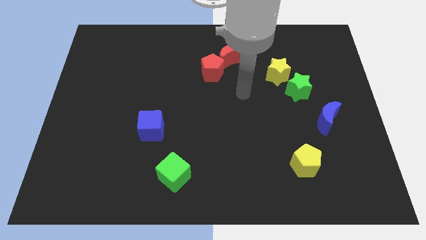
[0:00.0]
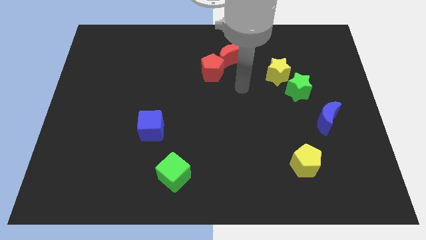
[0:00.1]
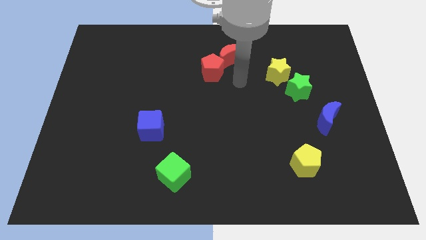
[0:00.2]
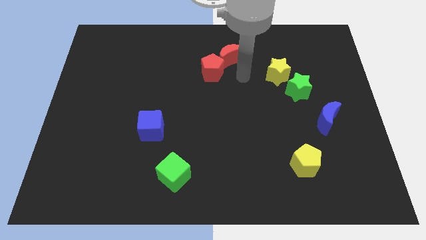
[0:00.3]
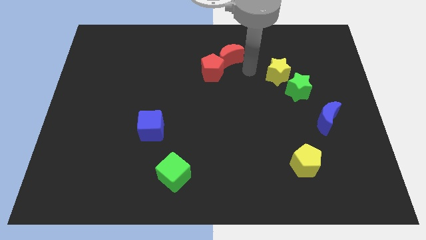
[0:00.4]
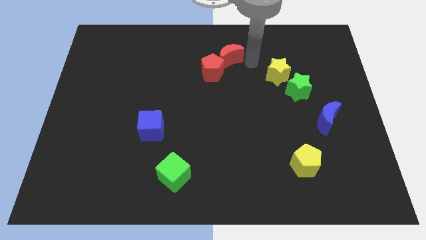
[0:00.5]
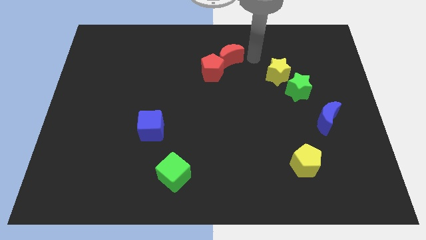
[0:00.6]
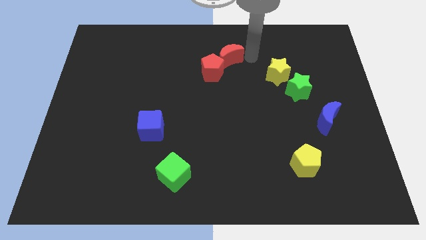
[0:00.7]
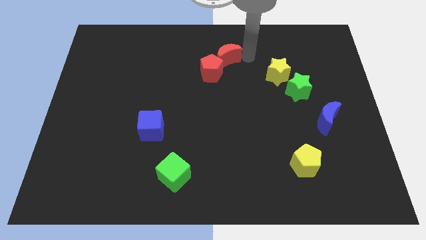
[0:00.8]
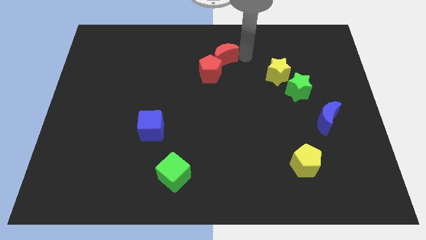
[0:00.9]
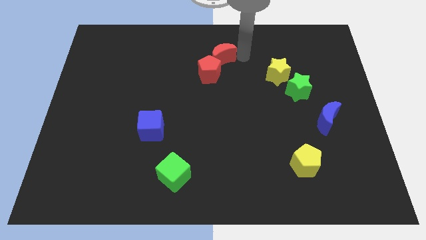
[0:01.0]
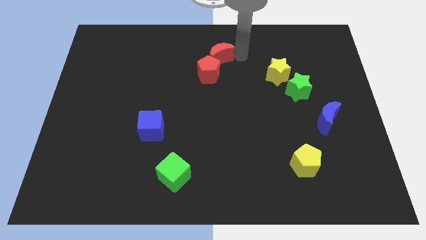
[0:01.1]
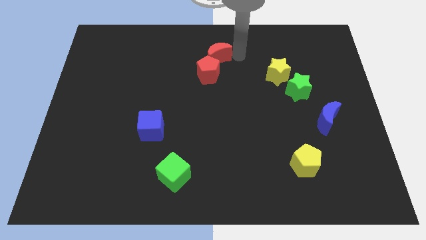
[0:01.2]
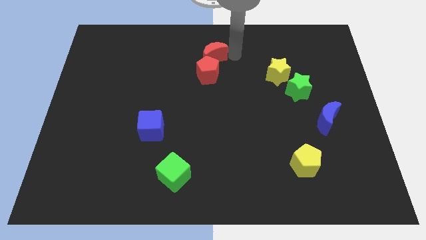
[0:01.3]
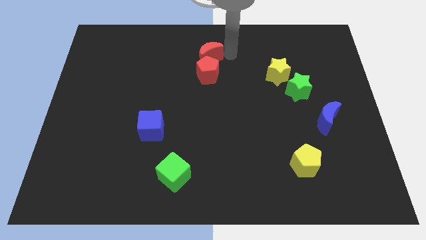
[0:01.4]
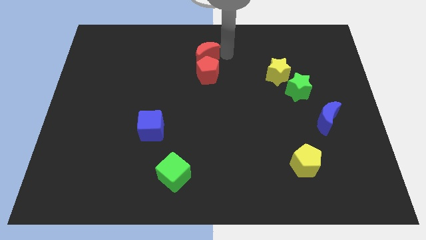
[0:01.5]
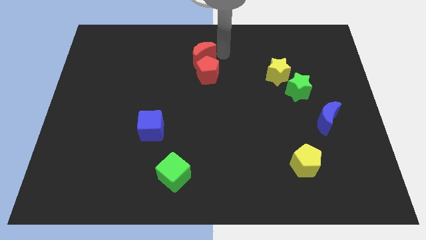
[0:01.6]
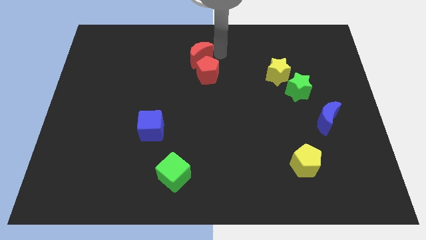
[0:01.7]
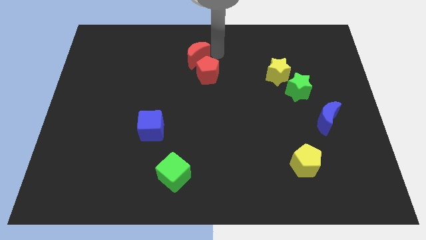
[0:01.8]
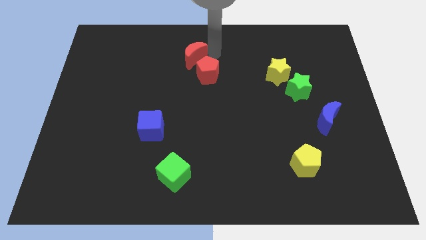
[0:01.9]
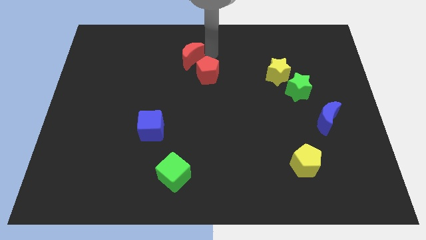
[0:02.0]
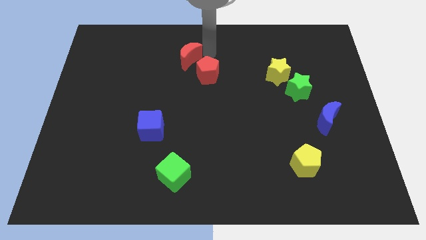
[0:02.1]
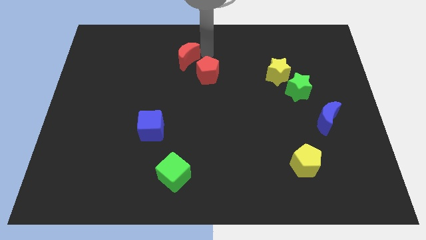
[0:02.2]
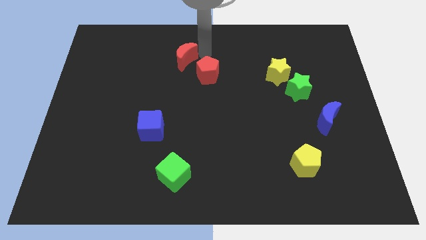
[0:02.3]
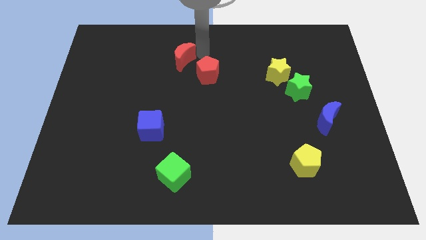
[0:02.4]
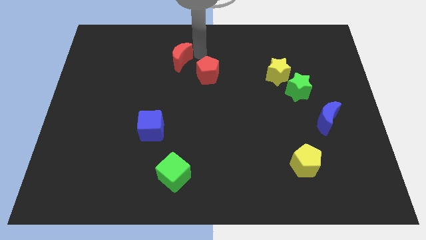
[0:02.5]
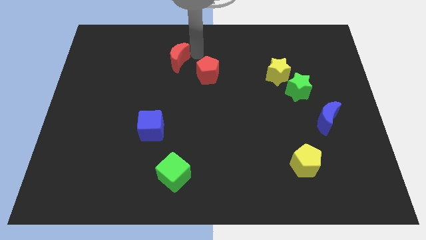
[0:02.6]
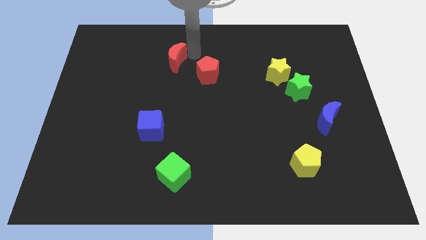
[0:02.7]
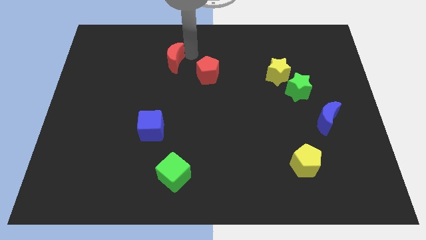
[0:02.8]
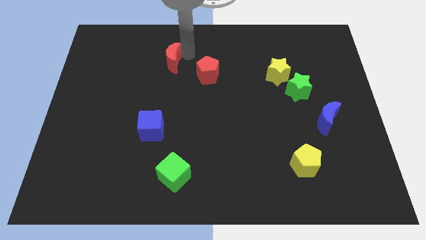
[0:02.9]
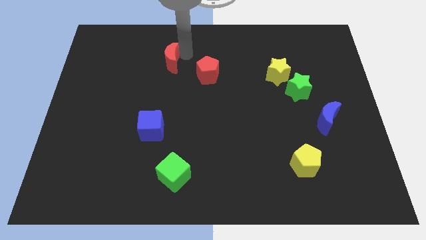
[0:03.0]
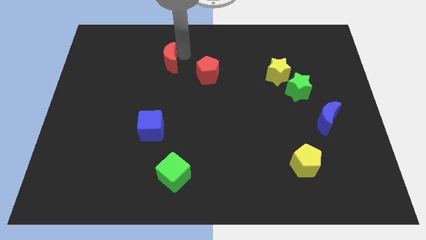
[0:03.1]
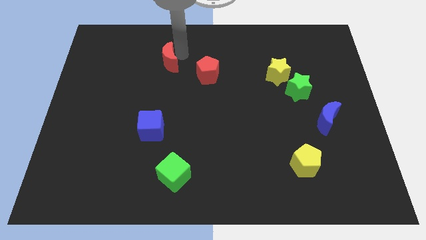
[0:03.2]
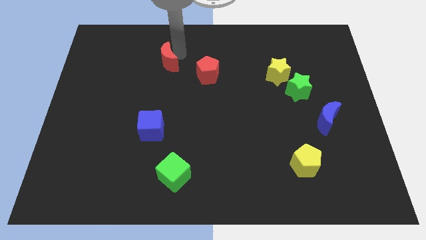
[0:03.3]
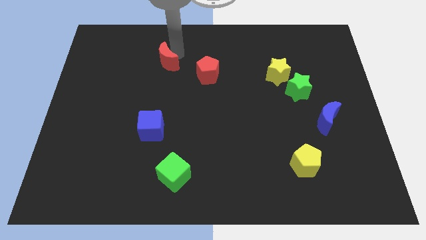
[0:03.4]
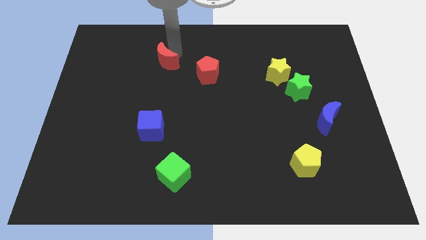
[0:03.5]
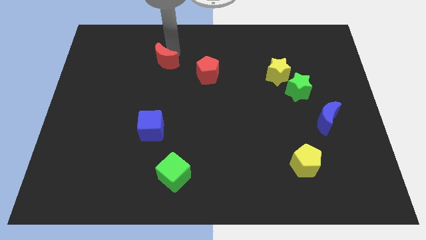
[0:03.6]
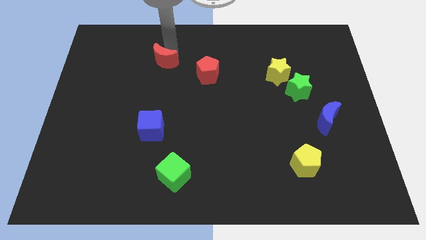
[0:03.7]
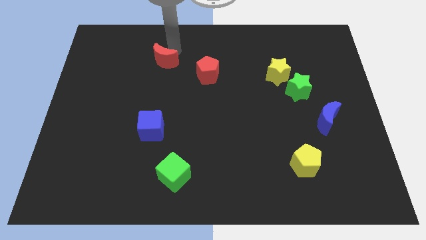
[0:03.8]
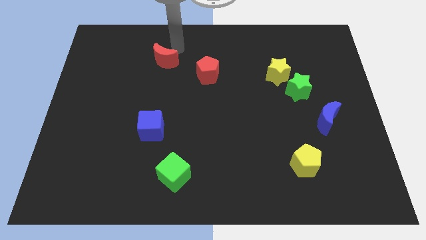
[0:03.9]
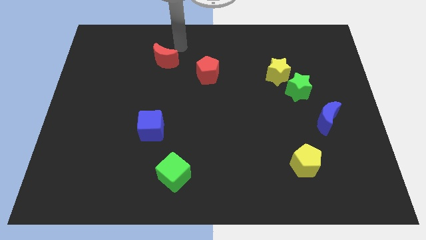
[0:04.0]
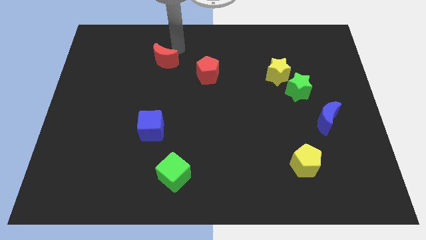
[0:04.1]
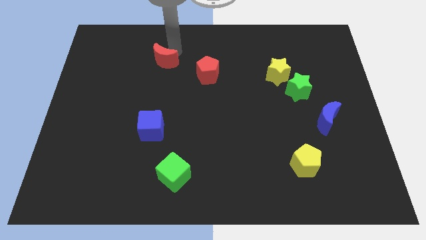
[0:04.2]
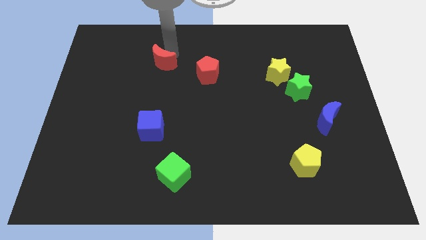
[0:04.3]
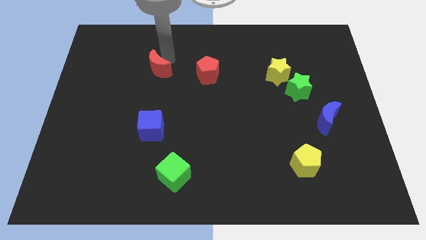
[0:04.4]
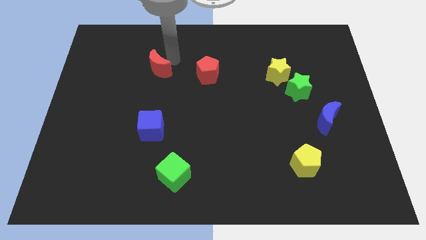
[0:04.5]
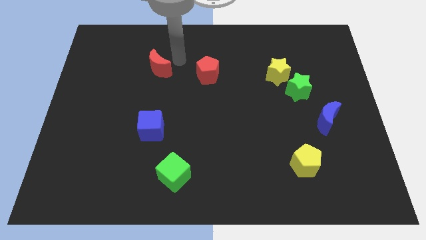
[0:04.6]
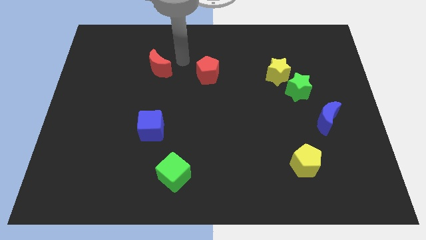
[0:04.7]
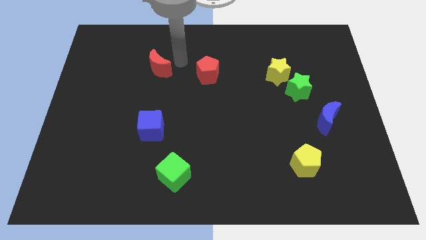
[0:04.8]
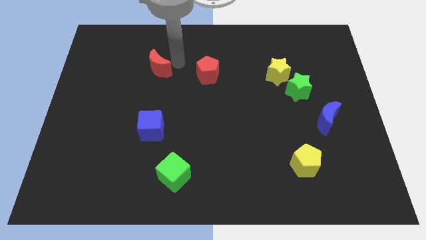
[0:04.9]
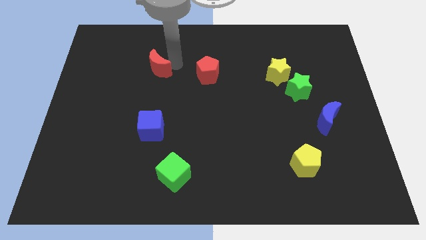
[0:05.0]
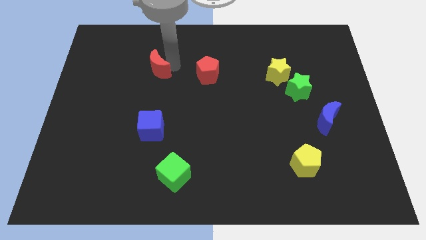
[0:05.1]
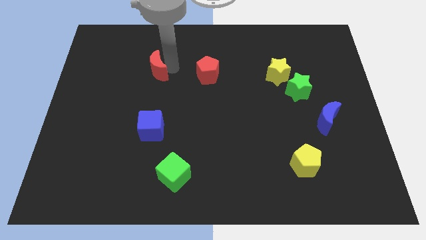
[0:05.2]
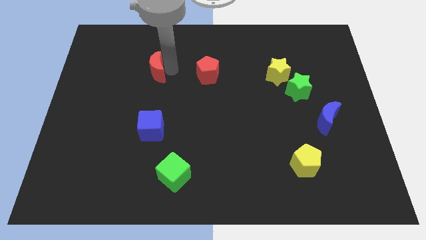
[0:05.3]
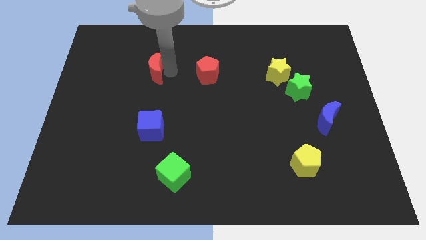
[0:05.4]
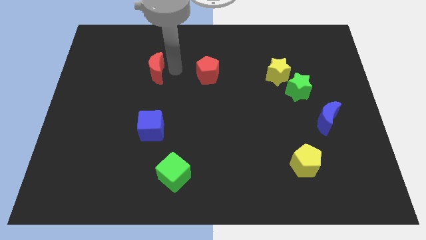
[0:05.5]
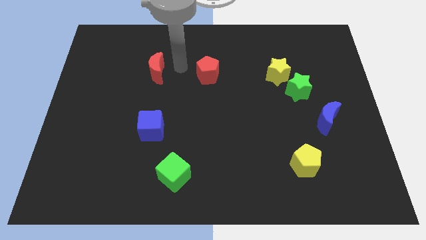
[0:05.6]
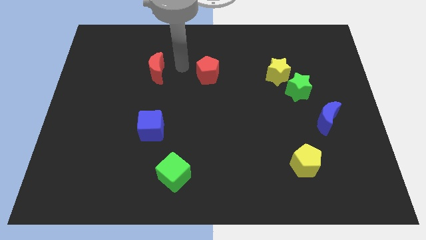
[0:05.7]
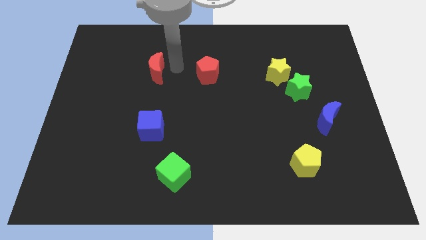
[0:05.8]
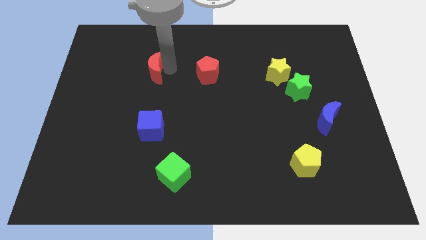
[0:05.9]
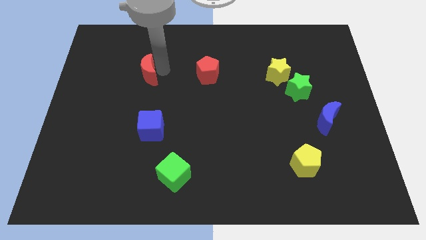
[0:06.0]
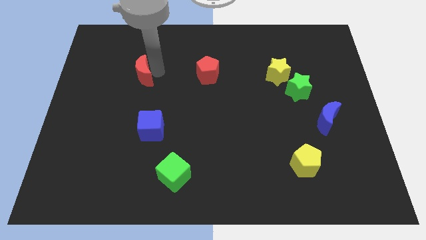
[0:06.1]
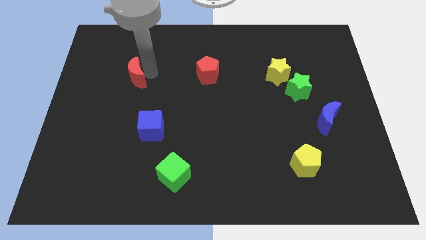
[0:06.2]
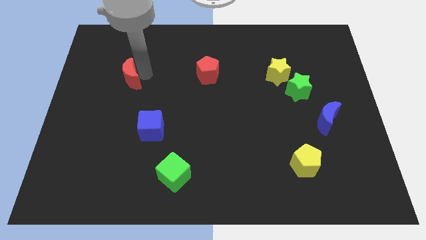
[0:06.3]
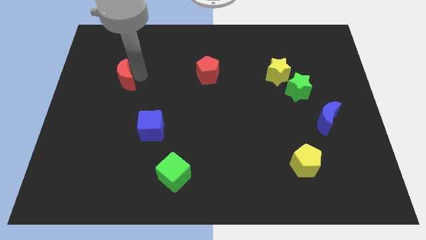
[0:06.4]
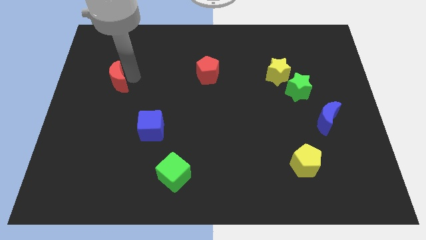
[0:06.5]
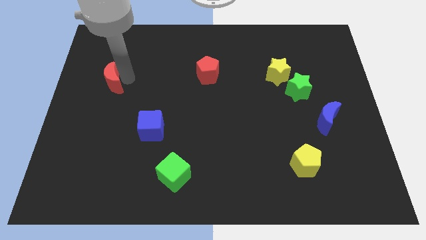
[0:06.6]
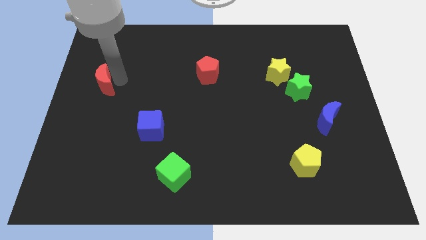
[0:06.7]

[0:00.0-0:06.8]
push the red moon to the left side of the board
